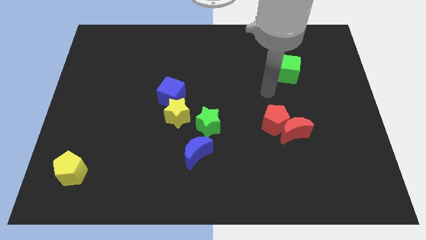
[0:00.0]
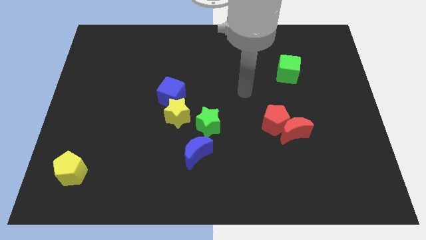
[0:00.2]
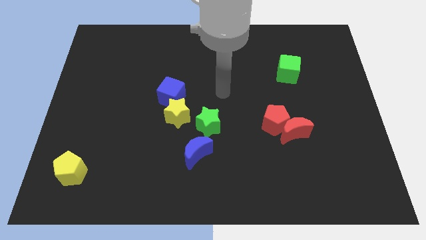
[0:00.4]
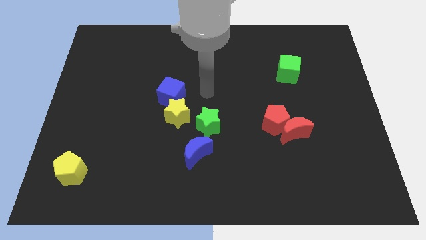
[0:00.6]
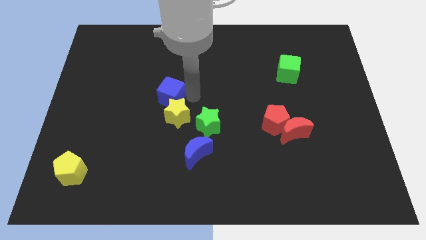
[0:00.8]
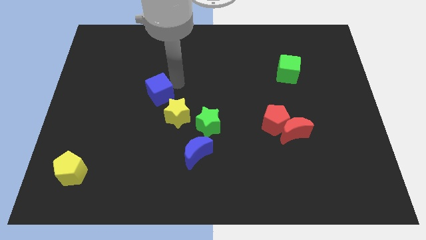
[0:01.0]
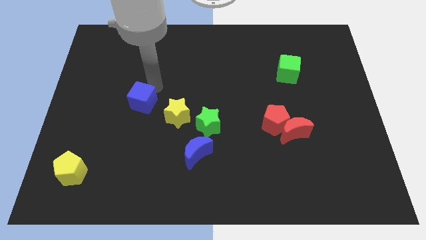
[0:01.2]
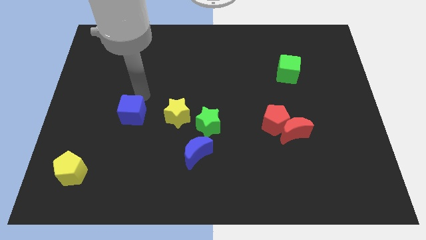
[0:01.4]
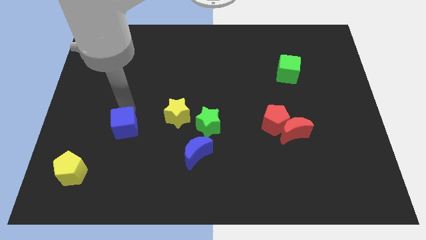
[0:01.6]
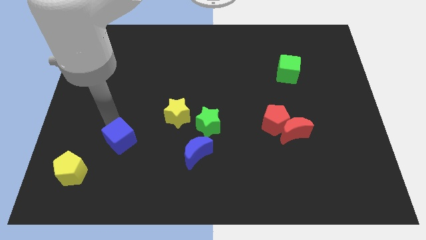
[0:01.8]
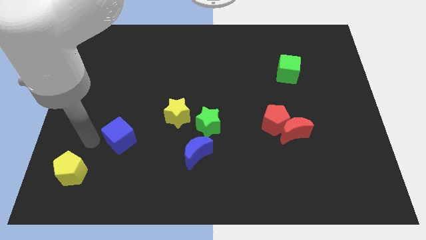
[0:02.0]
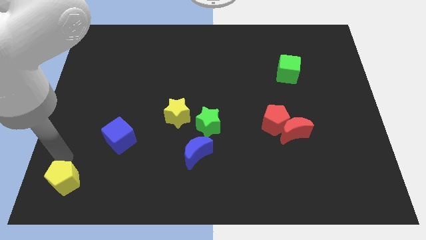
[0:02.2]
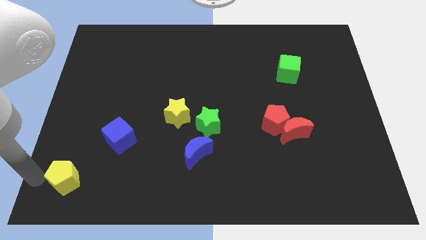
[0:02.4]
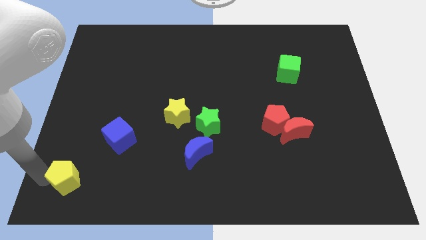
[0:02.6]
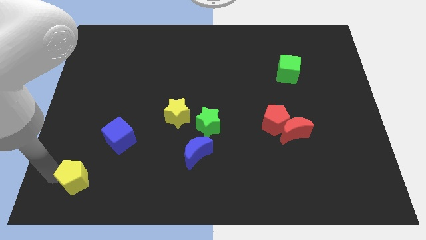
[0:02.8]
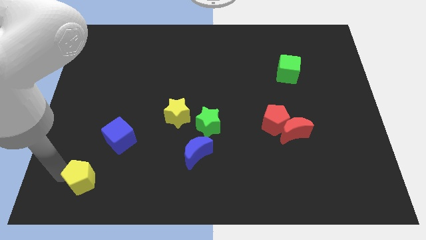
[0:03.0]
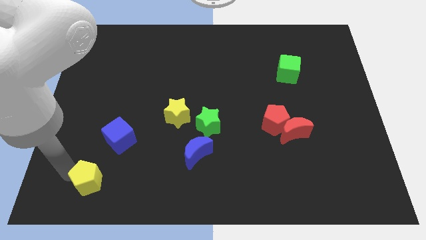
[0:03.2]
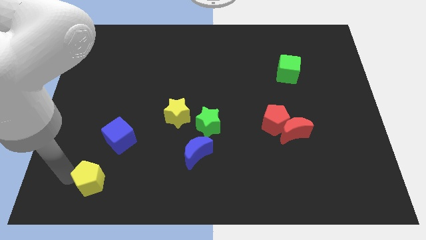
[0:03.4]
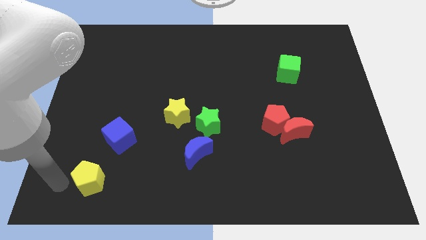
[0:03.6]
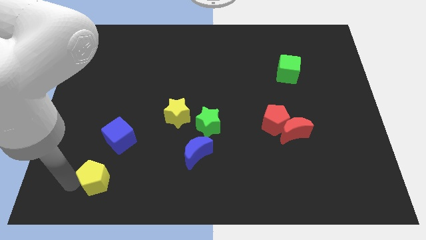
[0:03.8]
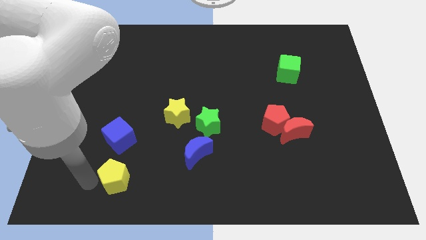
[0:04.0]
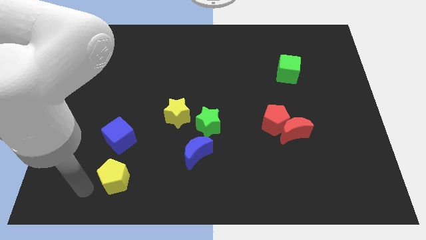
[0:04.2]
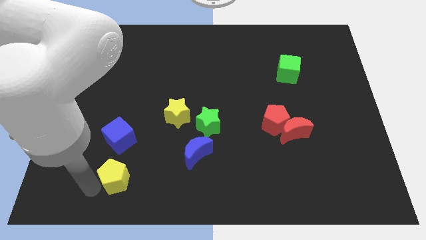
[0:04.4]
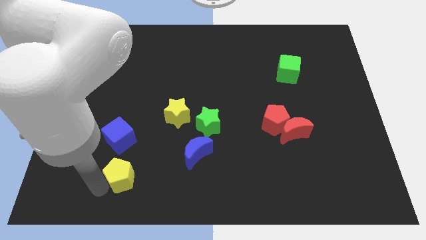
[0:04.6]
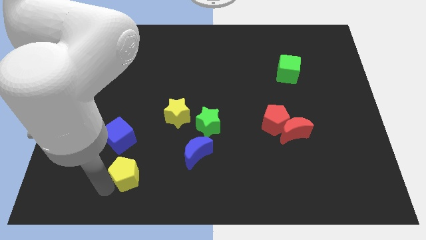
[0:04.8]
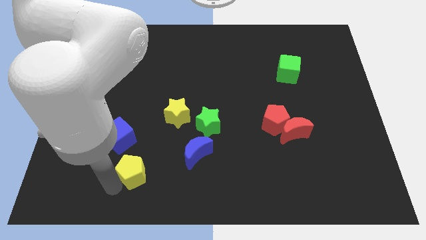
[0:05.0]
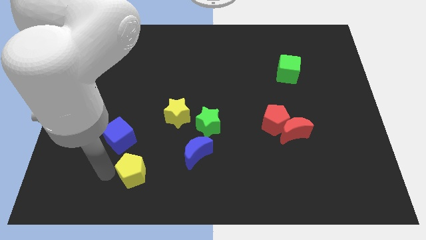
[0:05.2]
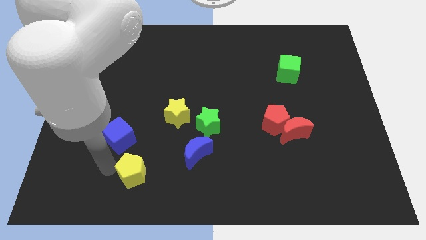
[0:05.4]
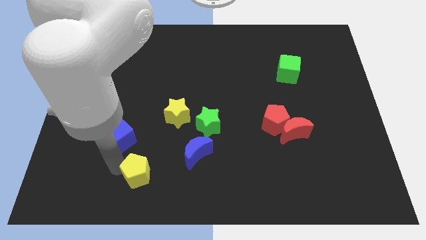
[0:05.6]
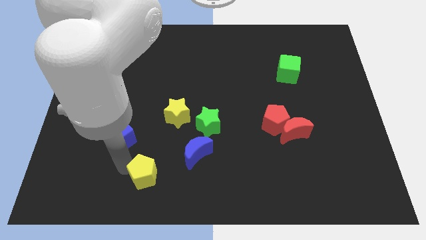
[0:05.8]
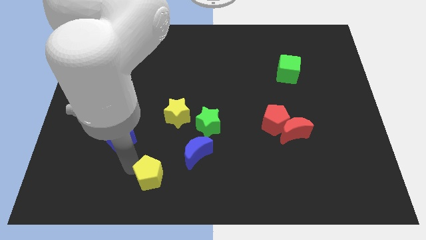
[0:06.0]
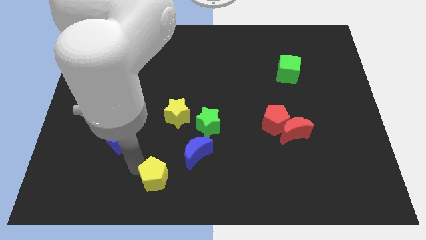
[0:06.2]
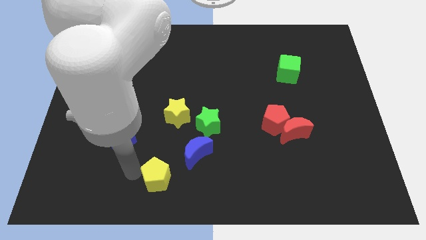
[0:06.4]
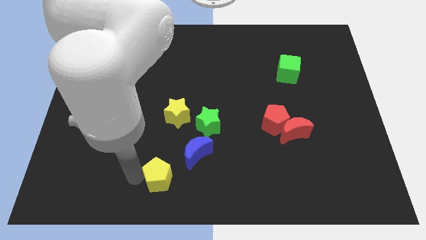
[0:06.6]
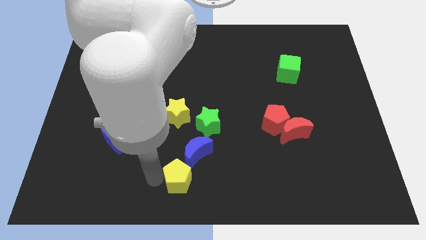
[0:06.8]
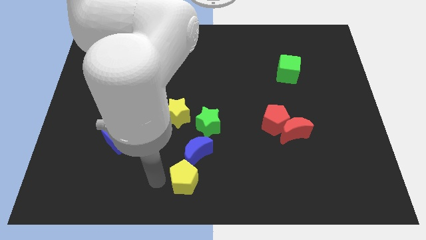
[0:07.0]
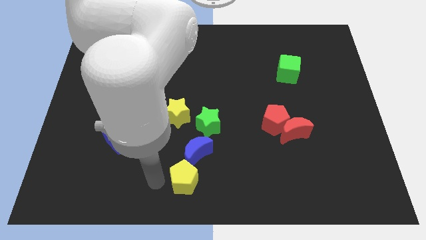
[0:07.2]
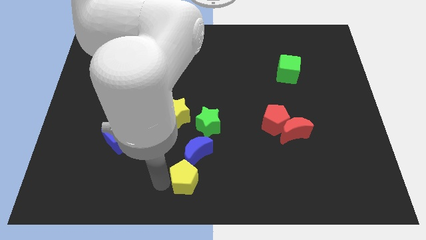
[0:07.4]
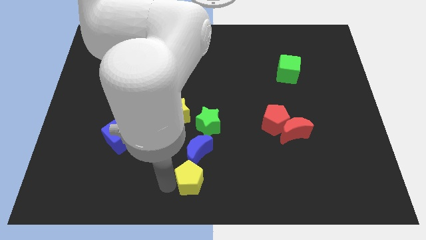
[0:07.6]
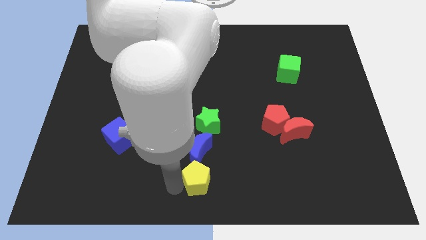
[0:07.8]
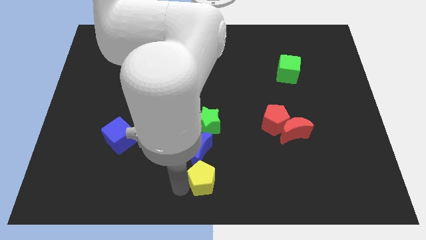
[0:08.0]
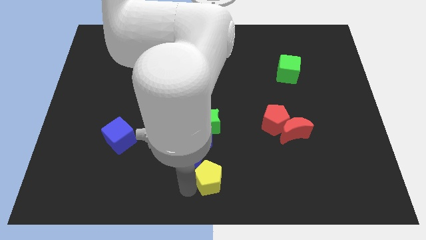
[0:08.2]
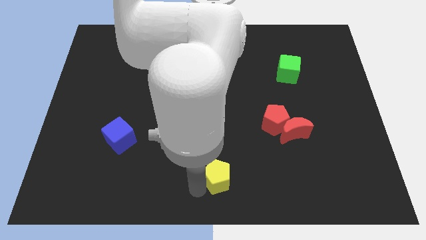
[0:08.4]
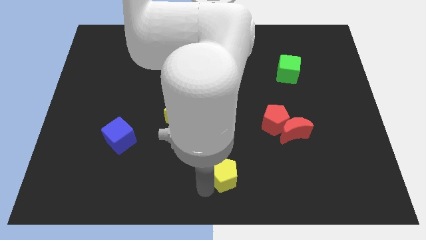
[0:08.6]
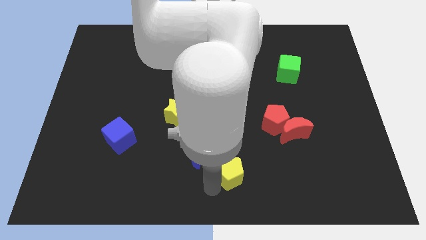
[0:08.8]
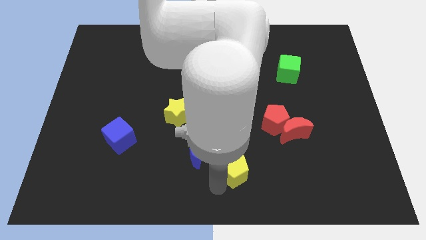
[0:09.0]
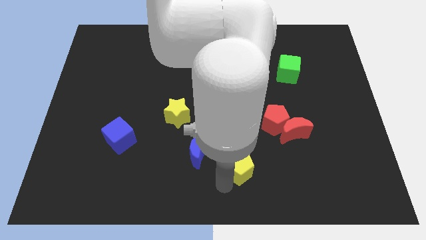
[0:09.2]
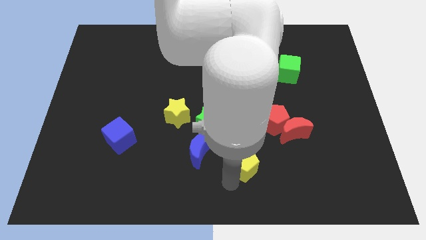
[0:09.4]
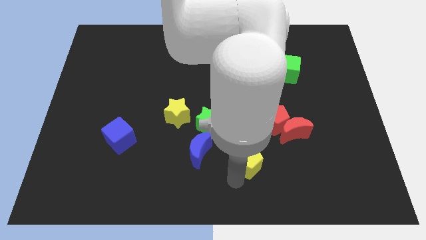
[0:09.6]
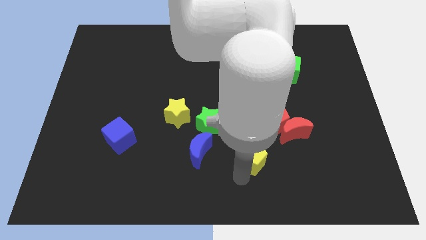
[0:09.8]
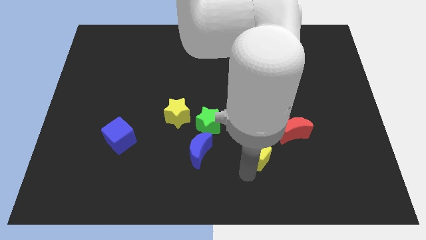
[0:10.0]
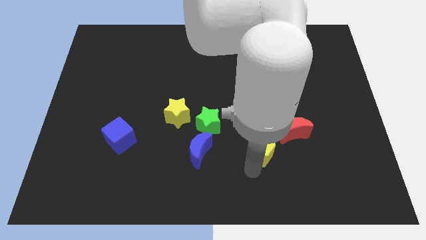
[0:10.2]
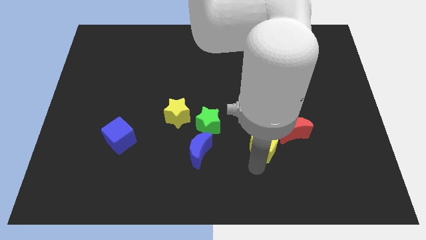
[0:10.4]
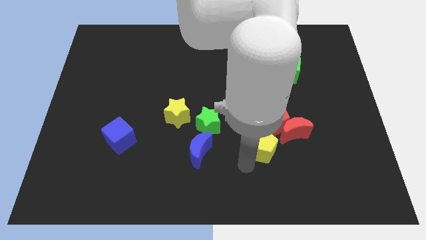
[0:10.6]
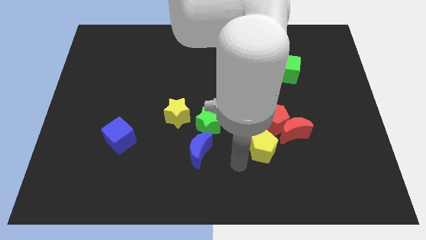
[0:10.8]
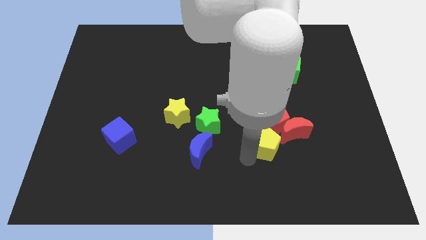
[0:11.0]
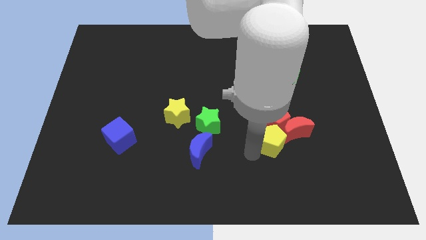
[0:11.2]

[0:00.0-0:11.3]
push the yellow pentagon next to the red moon

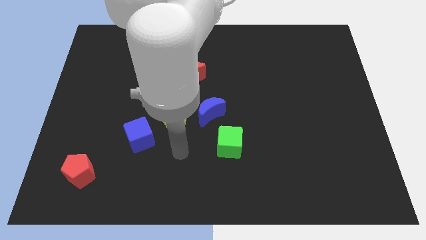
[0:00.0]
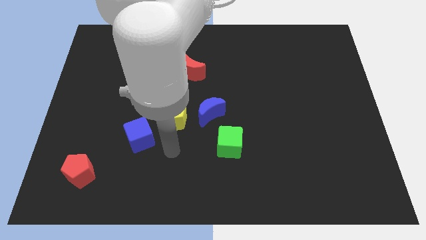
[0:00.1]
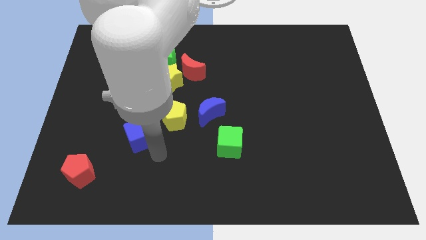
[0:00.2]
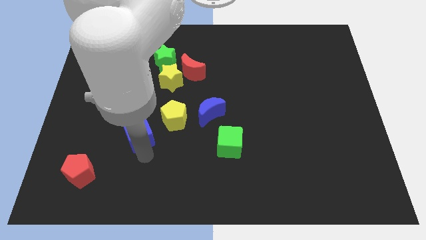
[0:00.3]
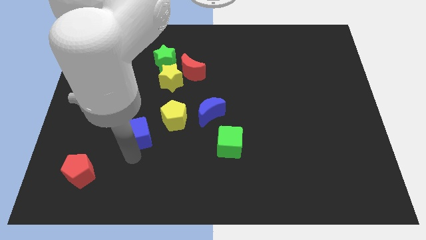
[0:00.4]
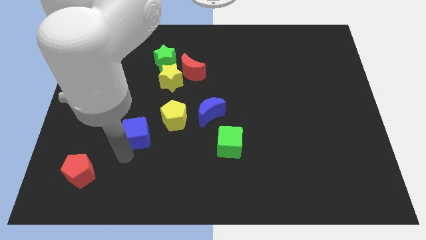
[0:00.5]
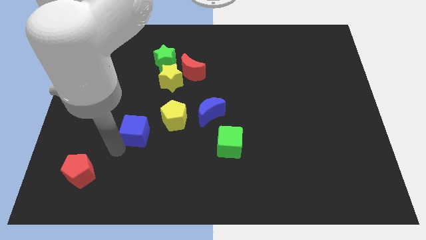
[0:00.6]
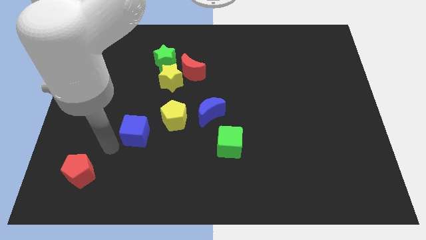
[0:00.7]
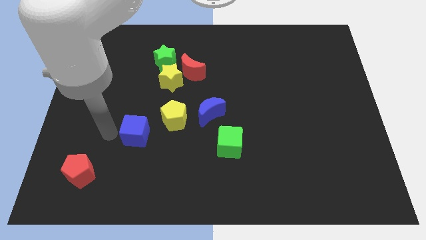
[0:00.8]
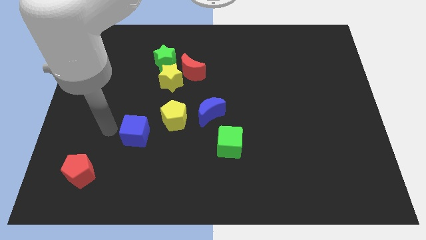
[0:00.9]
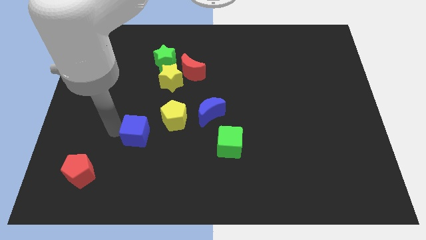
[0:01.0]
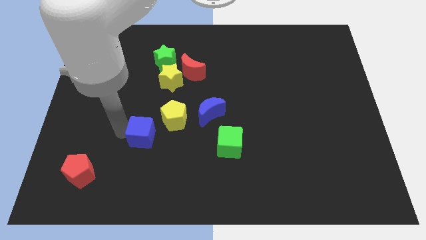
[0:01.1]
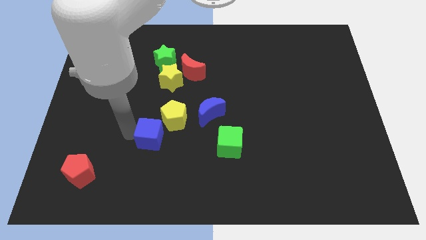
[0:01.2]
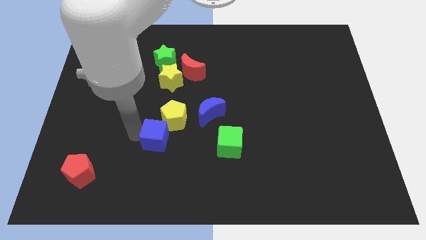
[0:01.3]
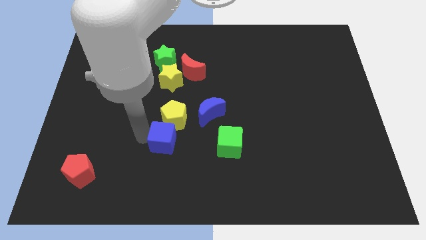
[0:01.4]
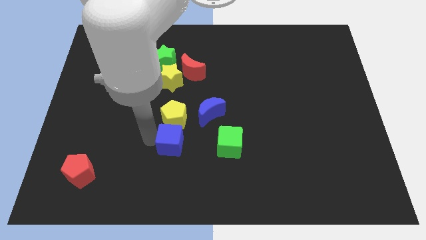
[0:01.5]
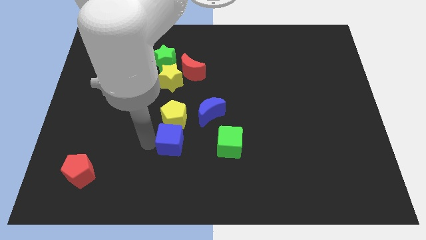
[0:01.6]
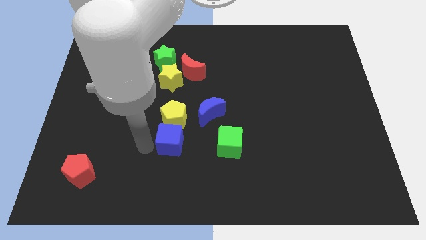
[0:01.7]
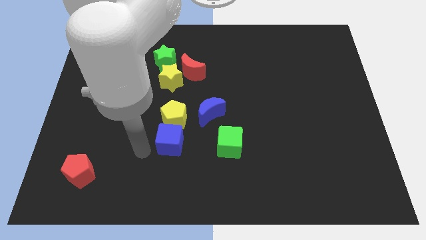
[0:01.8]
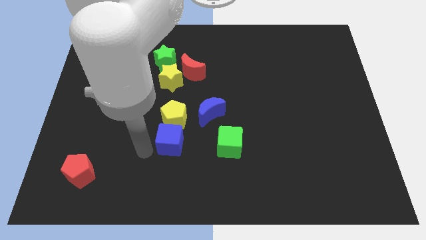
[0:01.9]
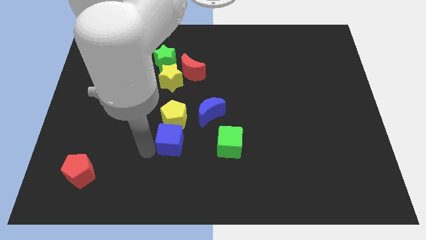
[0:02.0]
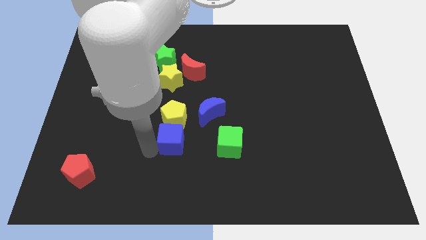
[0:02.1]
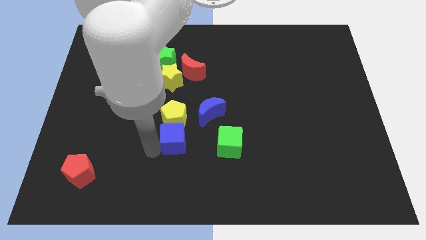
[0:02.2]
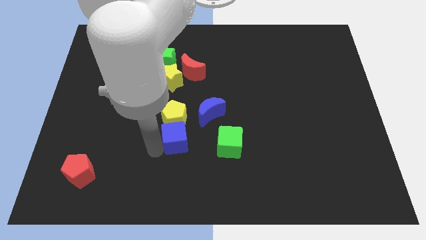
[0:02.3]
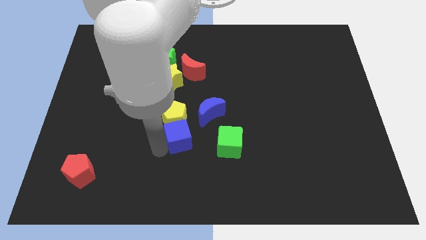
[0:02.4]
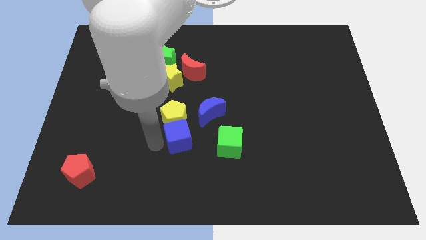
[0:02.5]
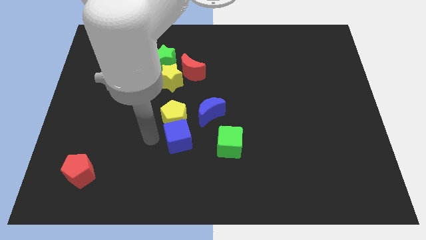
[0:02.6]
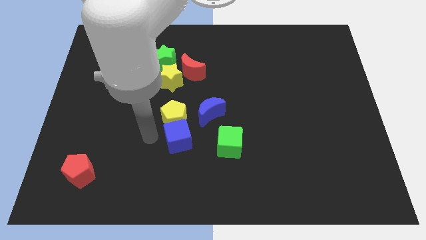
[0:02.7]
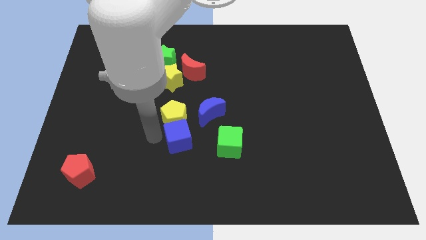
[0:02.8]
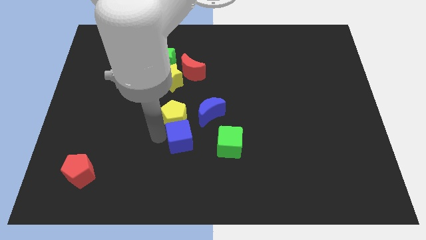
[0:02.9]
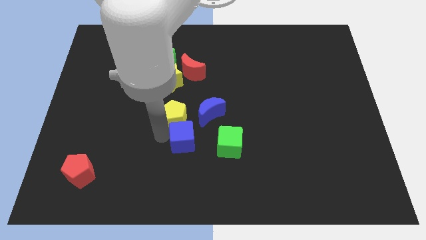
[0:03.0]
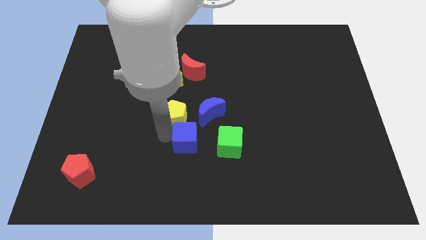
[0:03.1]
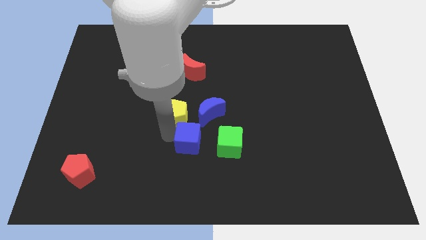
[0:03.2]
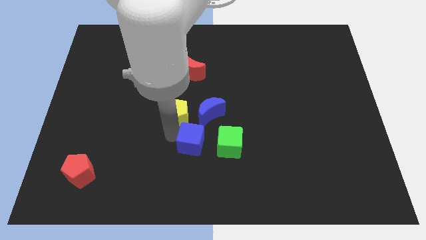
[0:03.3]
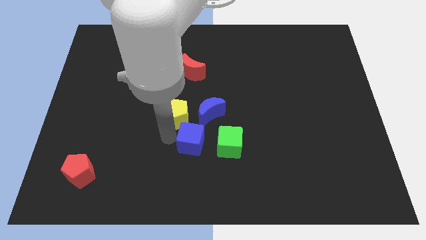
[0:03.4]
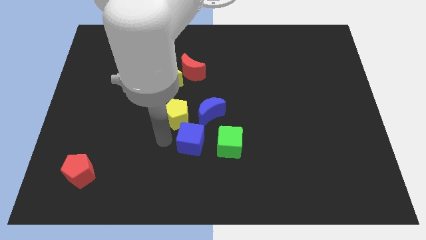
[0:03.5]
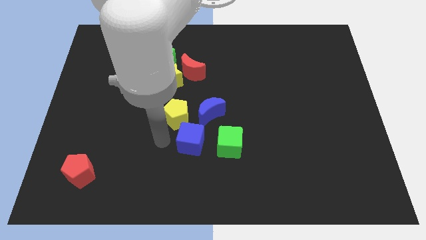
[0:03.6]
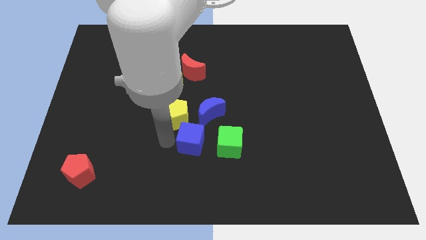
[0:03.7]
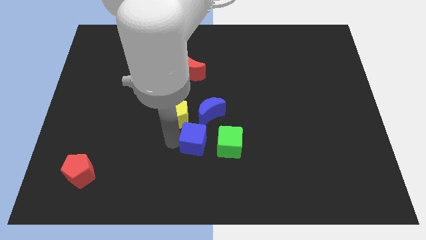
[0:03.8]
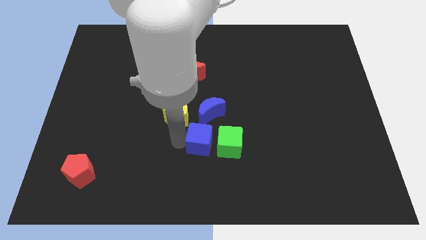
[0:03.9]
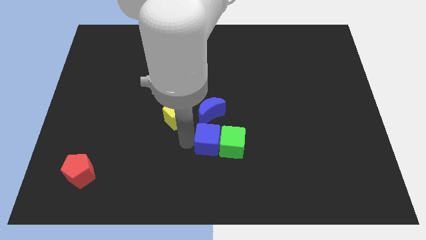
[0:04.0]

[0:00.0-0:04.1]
slide the blue cube next to the green cube
